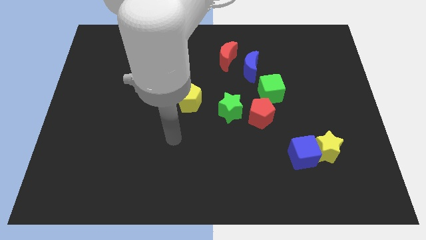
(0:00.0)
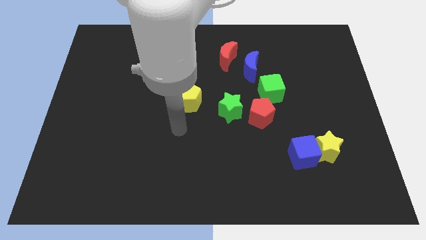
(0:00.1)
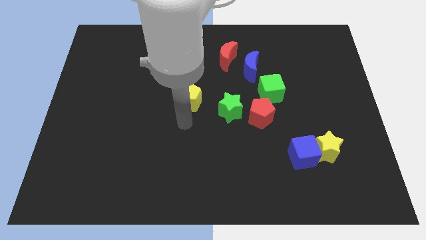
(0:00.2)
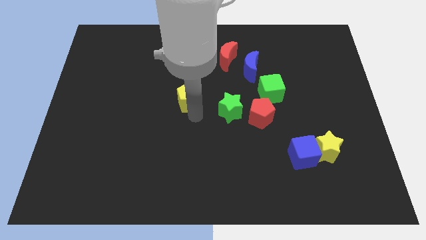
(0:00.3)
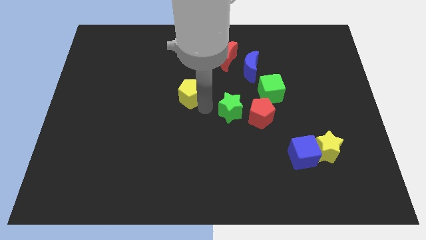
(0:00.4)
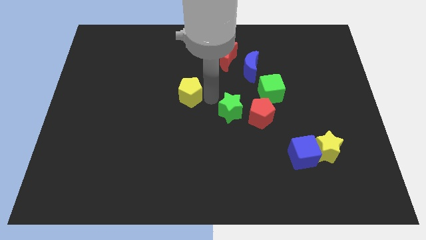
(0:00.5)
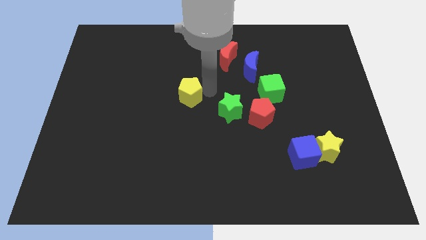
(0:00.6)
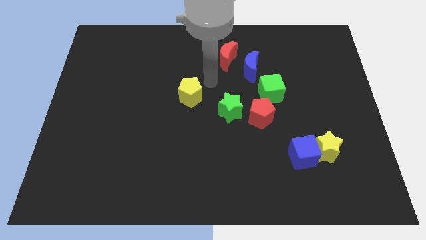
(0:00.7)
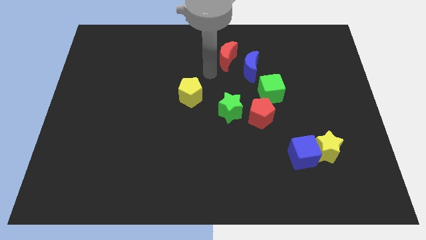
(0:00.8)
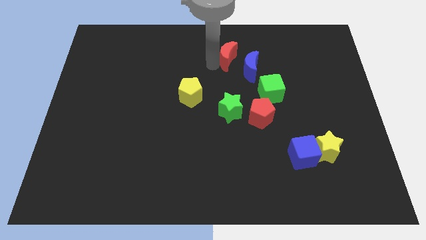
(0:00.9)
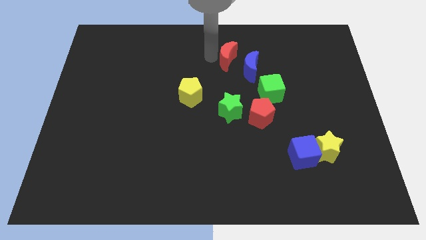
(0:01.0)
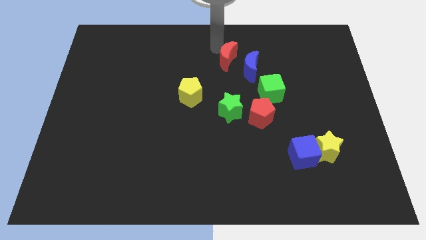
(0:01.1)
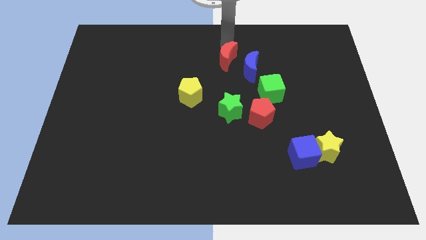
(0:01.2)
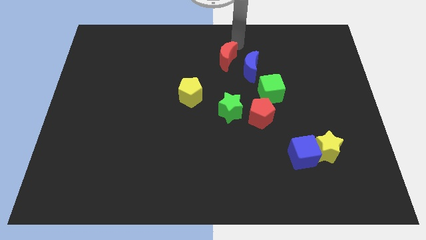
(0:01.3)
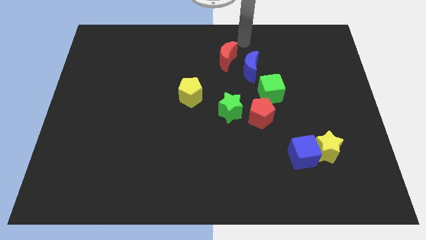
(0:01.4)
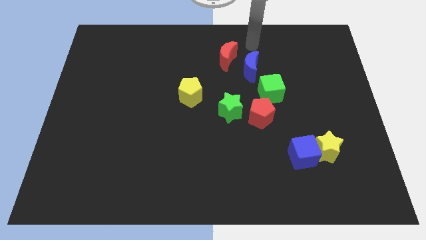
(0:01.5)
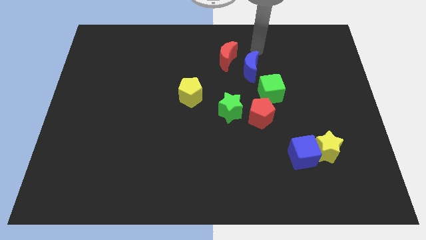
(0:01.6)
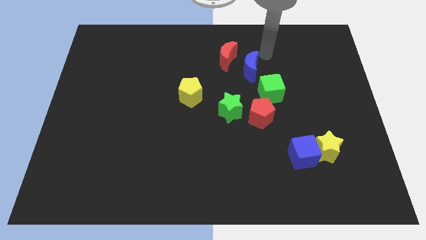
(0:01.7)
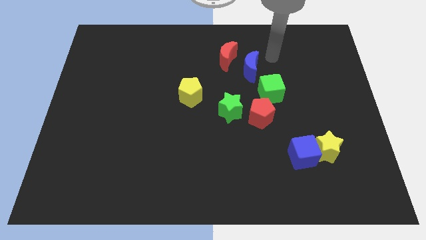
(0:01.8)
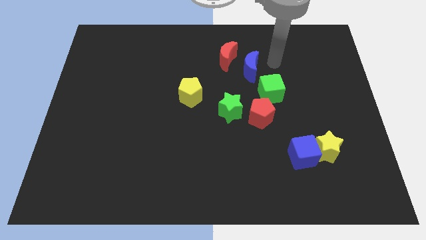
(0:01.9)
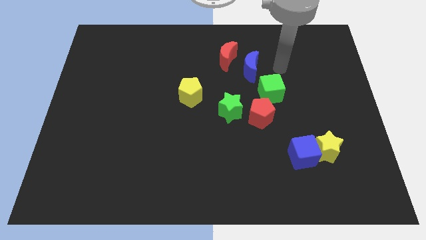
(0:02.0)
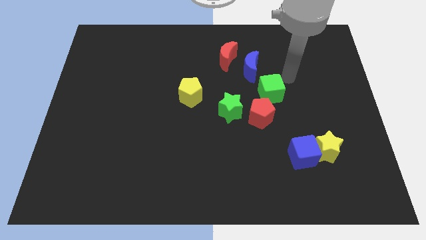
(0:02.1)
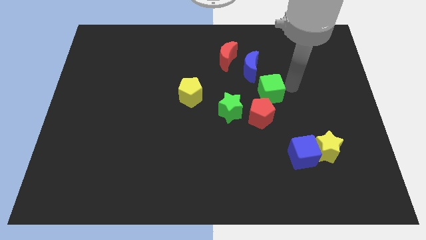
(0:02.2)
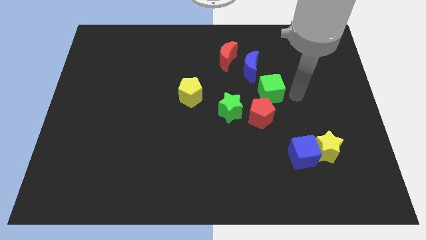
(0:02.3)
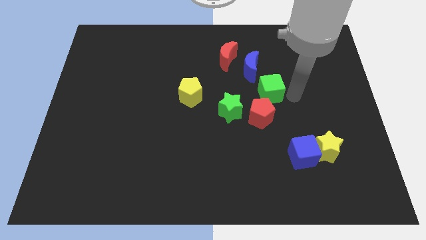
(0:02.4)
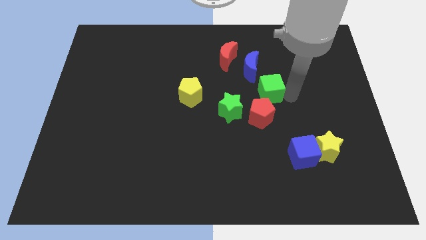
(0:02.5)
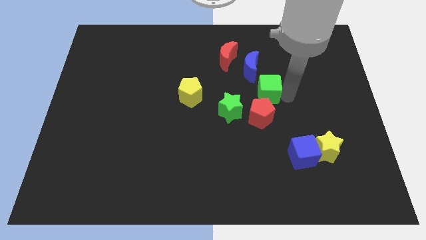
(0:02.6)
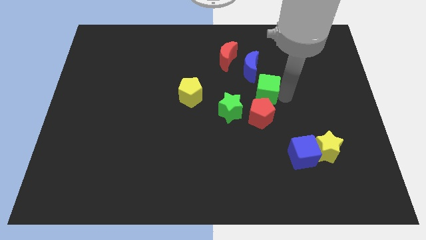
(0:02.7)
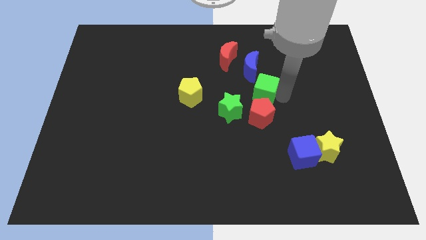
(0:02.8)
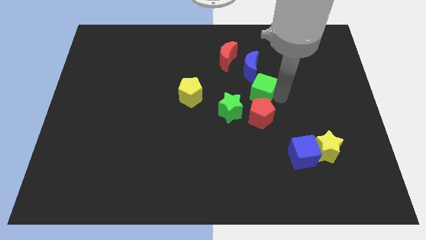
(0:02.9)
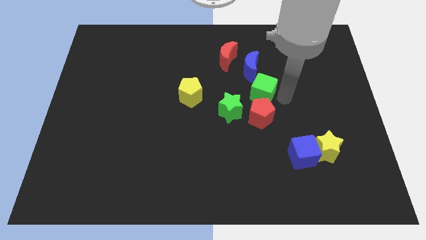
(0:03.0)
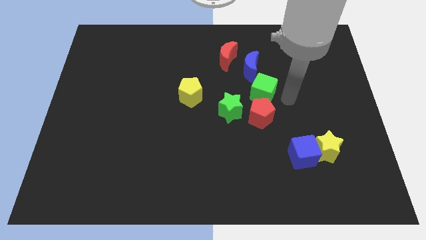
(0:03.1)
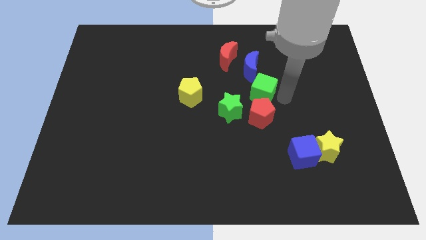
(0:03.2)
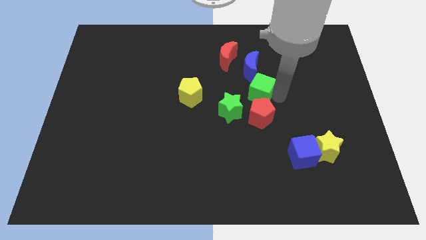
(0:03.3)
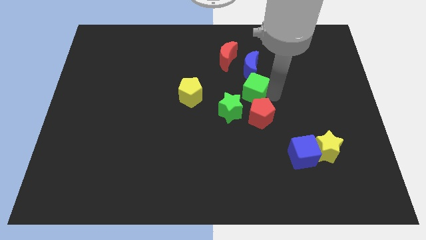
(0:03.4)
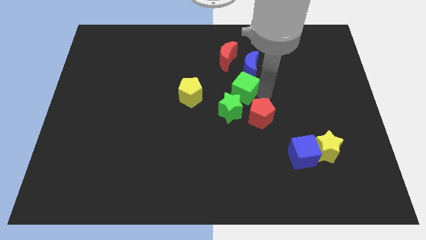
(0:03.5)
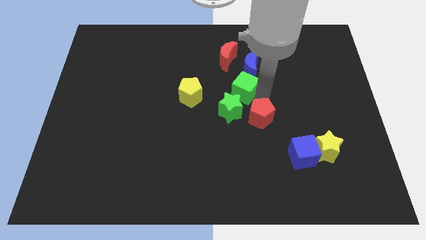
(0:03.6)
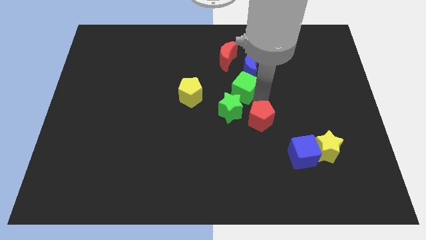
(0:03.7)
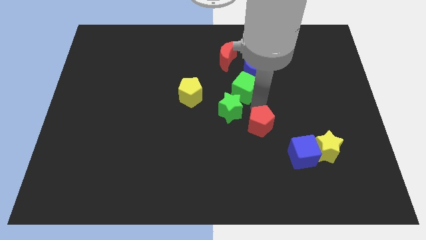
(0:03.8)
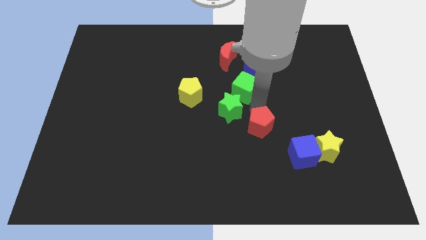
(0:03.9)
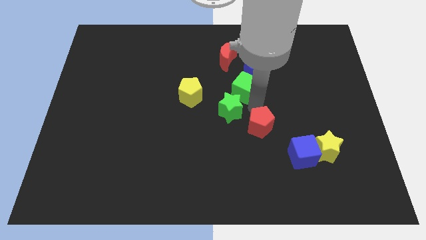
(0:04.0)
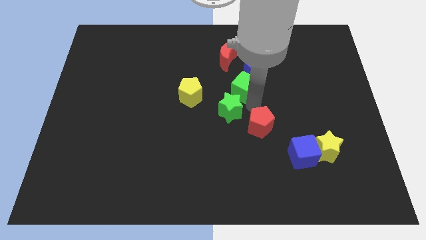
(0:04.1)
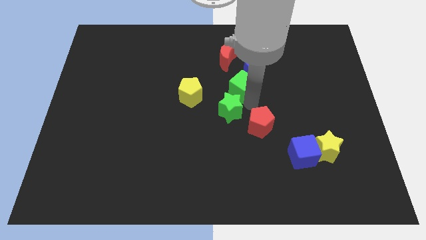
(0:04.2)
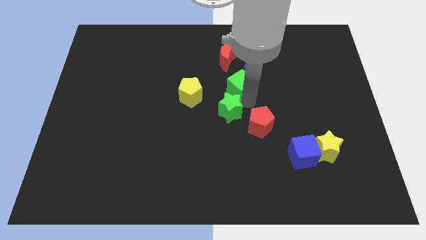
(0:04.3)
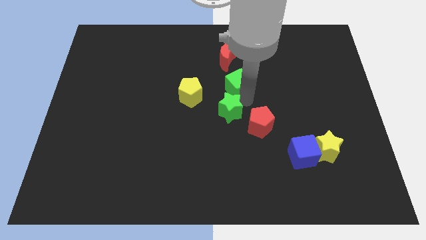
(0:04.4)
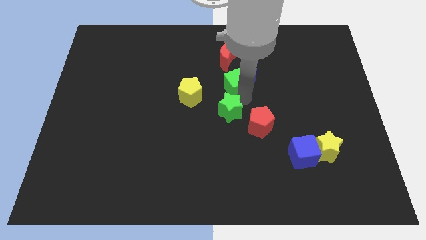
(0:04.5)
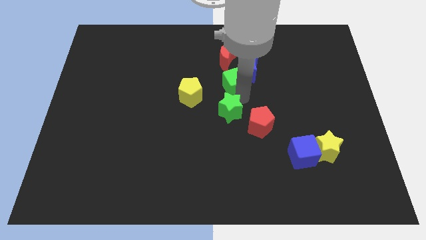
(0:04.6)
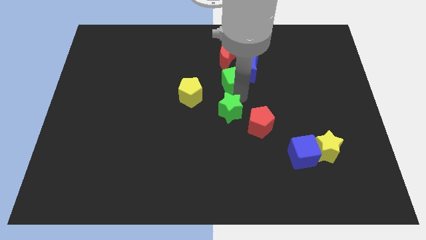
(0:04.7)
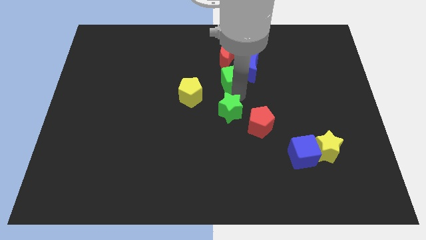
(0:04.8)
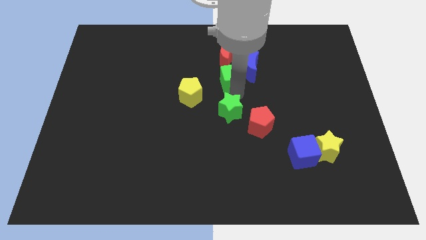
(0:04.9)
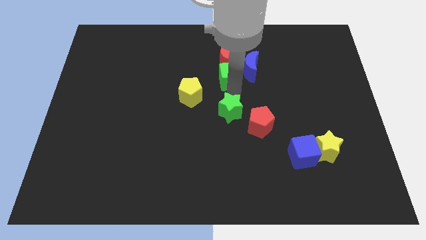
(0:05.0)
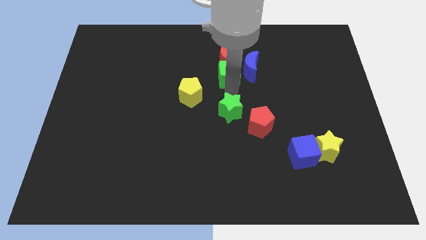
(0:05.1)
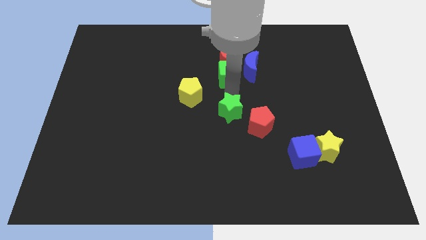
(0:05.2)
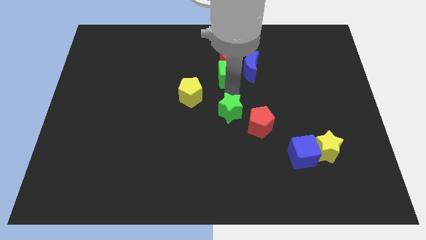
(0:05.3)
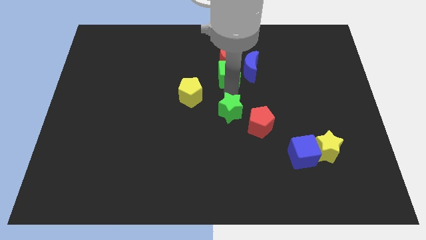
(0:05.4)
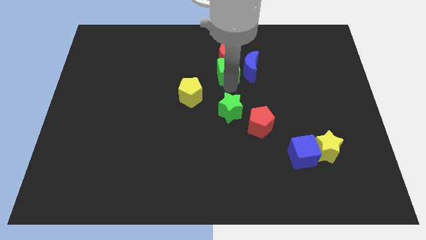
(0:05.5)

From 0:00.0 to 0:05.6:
push the green cube next to the red moon

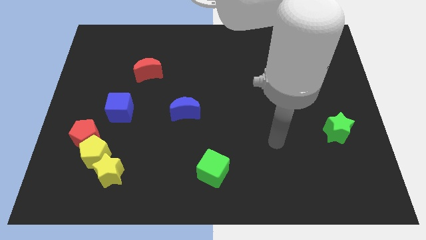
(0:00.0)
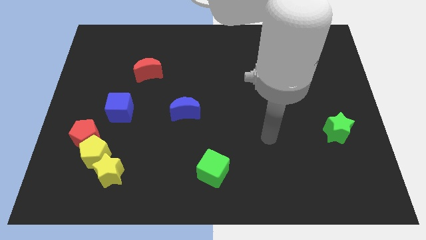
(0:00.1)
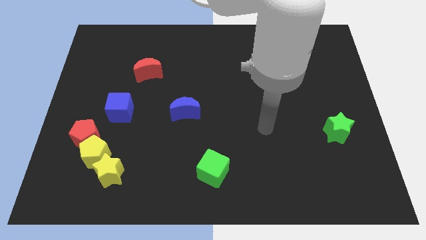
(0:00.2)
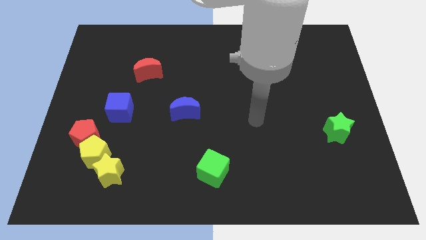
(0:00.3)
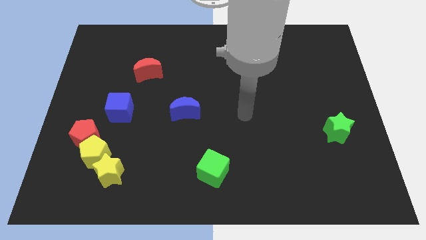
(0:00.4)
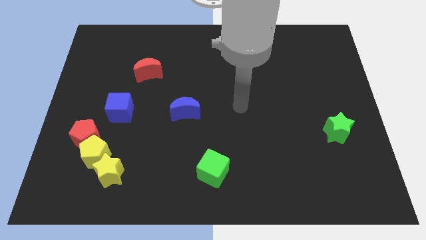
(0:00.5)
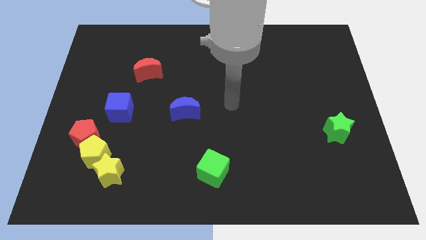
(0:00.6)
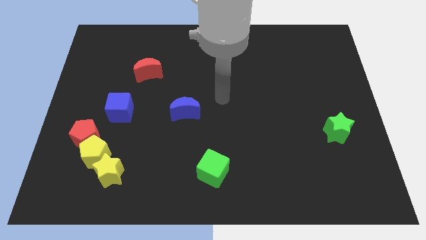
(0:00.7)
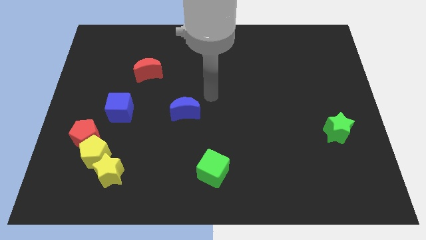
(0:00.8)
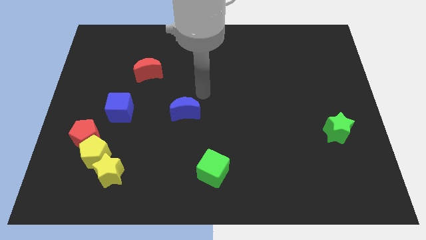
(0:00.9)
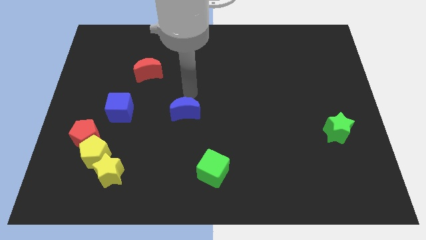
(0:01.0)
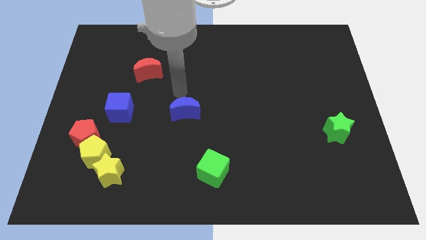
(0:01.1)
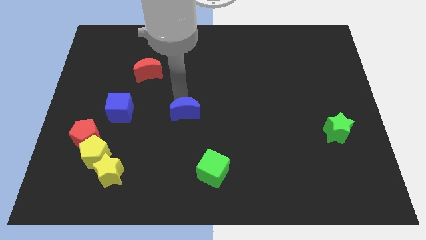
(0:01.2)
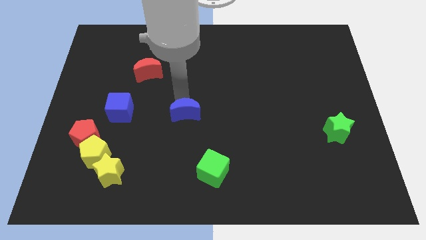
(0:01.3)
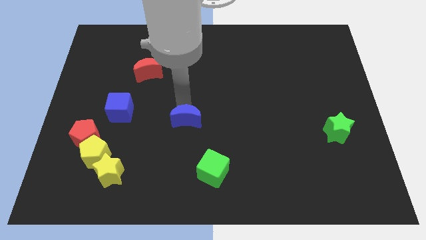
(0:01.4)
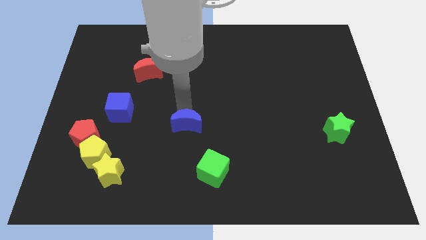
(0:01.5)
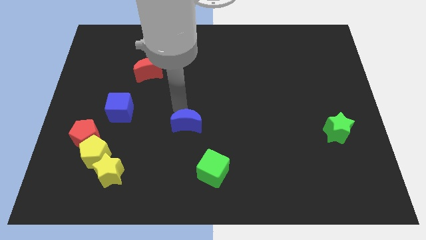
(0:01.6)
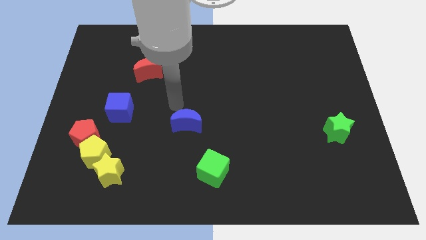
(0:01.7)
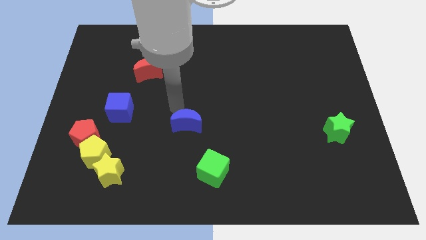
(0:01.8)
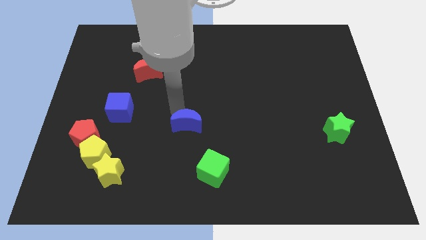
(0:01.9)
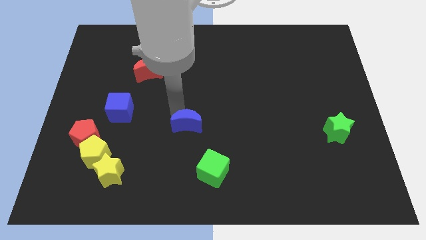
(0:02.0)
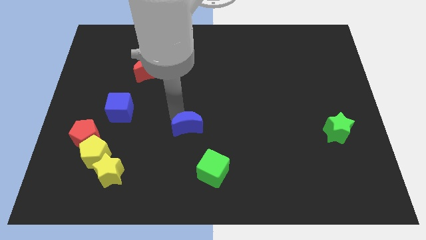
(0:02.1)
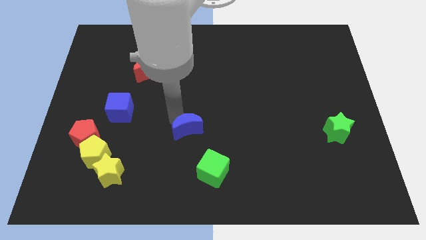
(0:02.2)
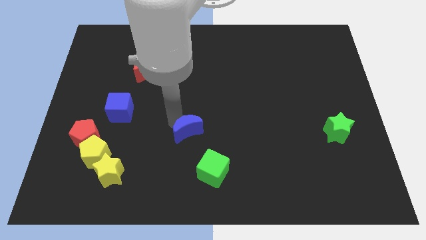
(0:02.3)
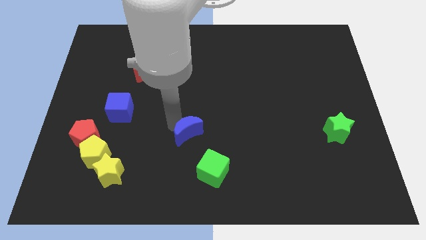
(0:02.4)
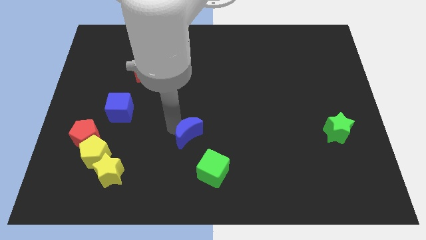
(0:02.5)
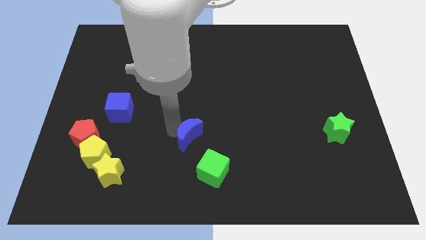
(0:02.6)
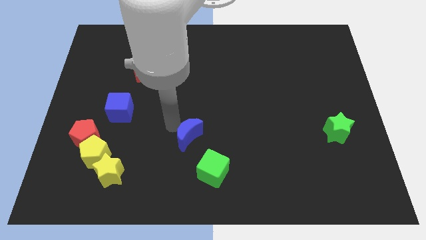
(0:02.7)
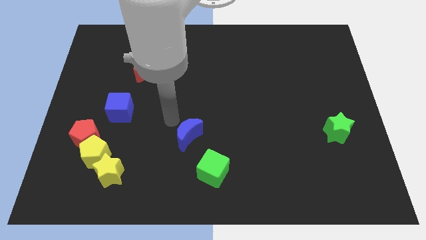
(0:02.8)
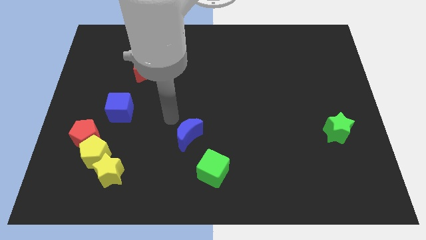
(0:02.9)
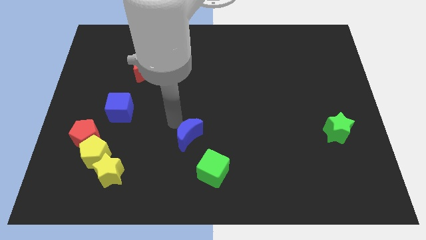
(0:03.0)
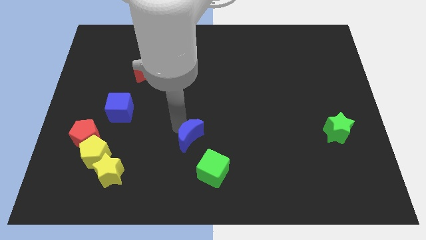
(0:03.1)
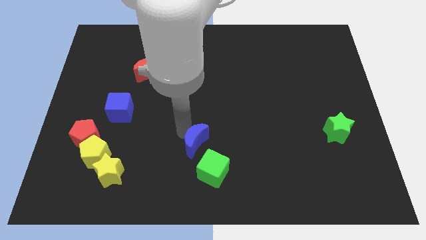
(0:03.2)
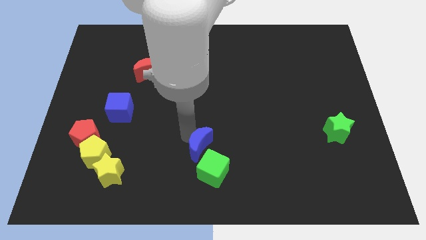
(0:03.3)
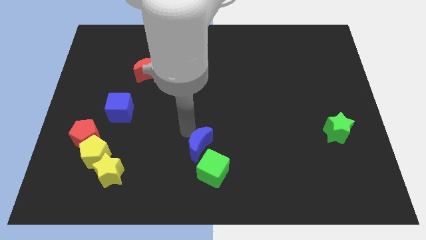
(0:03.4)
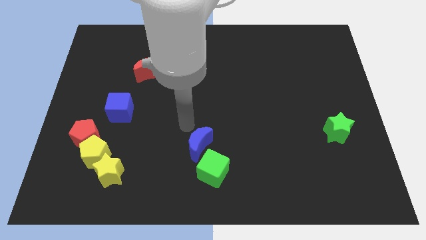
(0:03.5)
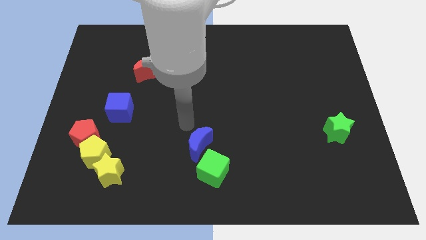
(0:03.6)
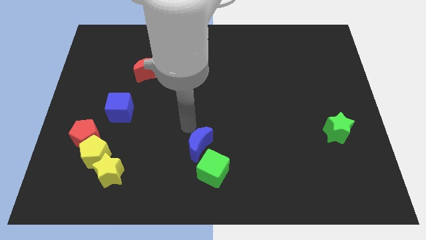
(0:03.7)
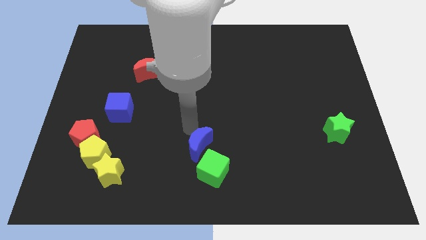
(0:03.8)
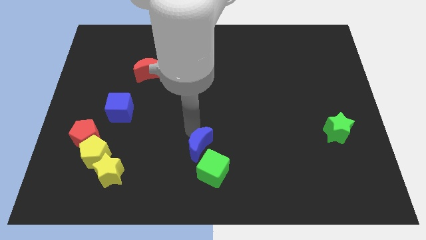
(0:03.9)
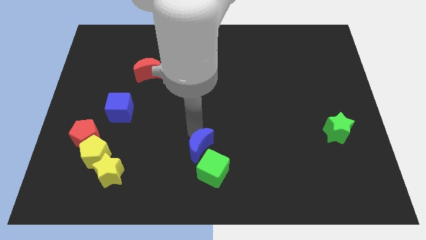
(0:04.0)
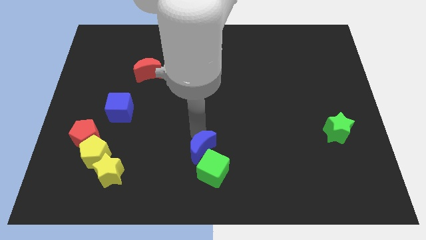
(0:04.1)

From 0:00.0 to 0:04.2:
put the blue moon to the green cube
